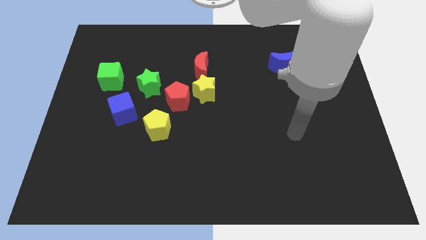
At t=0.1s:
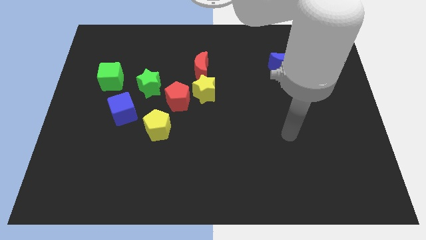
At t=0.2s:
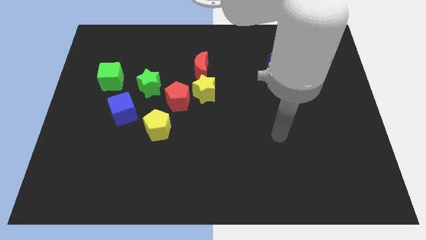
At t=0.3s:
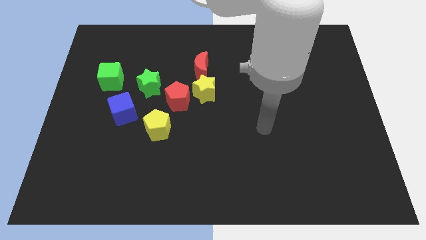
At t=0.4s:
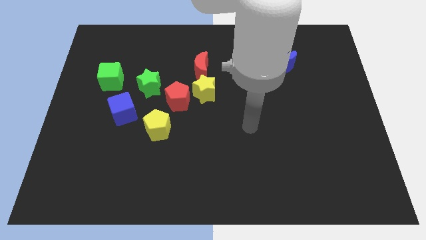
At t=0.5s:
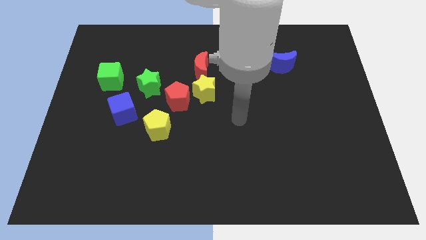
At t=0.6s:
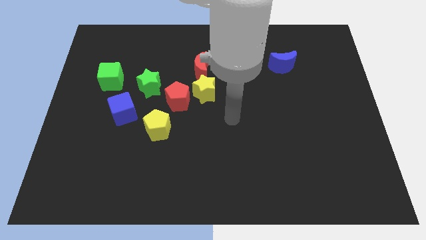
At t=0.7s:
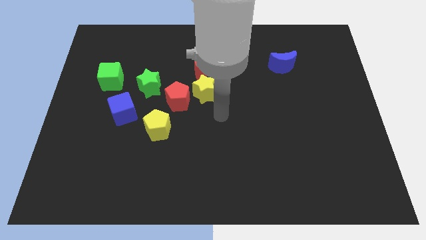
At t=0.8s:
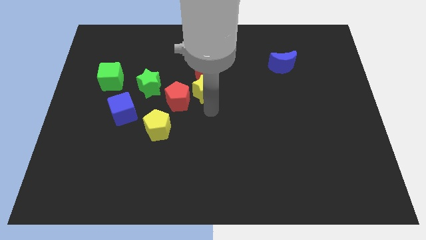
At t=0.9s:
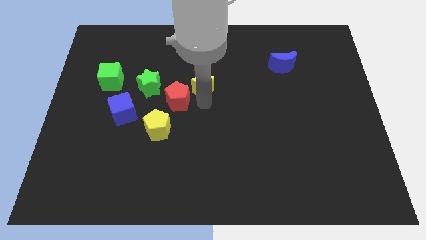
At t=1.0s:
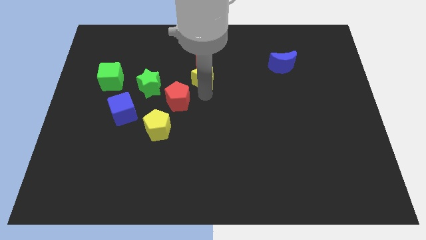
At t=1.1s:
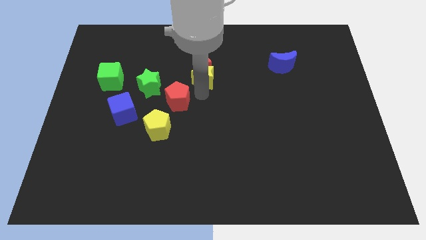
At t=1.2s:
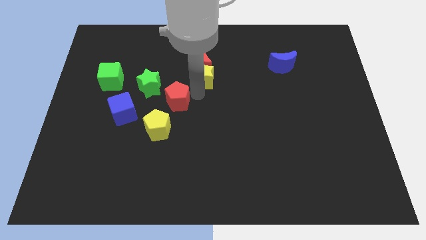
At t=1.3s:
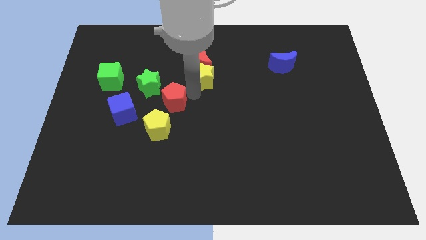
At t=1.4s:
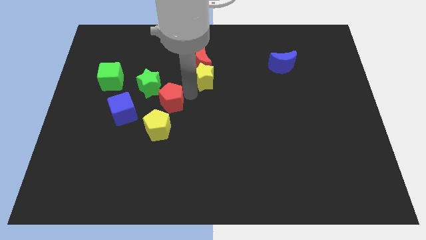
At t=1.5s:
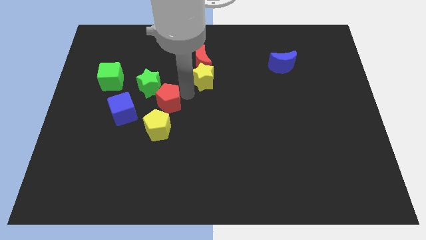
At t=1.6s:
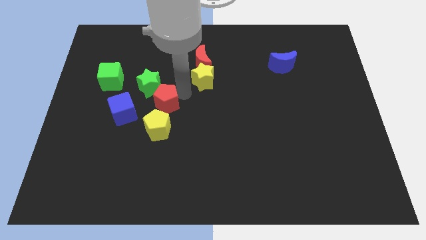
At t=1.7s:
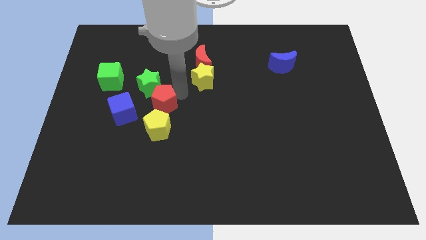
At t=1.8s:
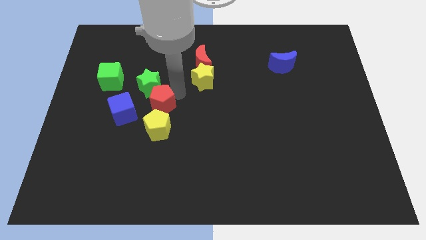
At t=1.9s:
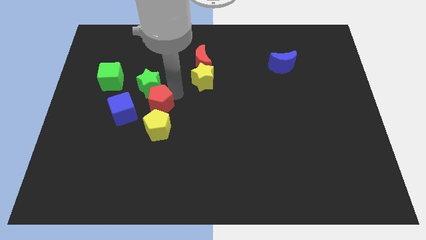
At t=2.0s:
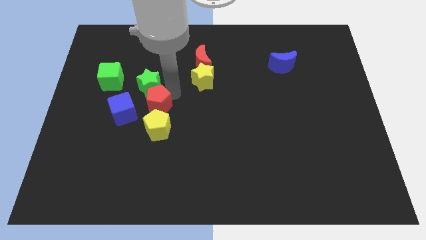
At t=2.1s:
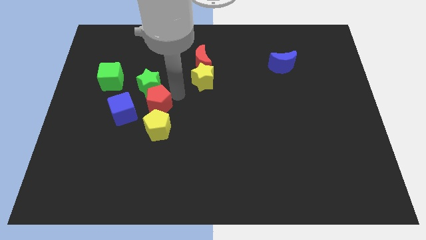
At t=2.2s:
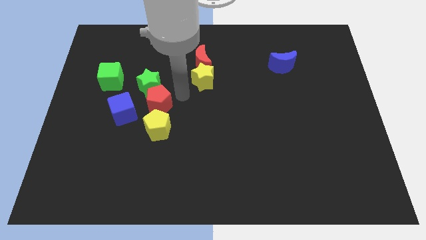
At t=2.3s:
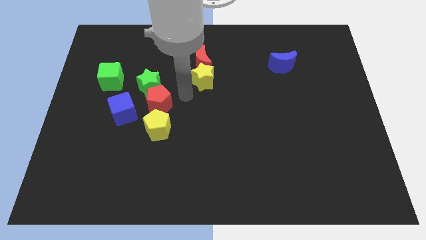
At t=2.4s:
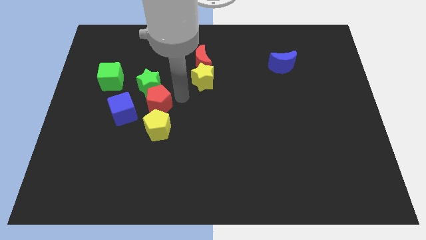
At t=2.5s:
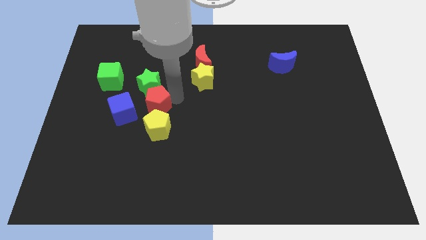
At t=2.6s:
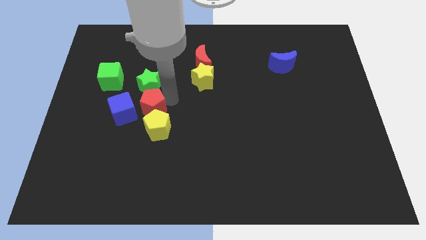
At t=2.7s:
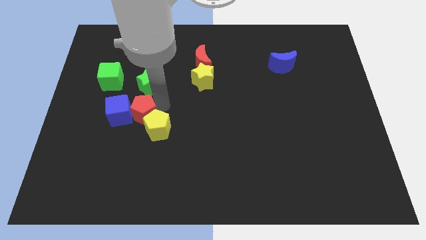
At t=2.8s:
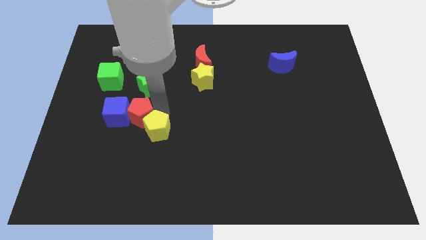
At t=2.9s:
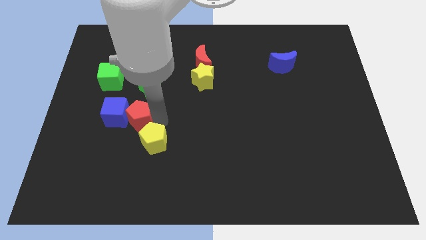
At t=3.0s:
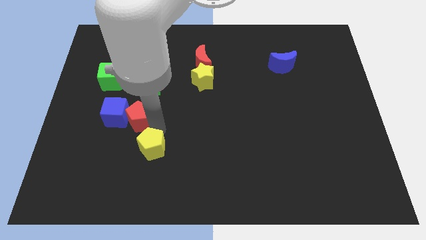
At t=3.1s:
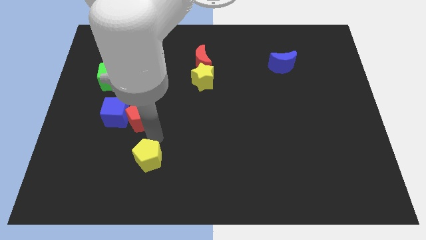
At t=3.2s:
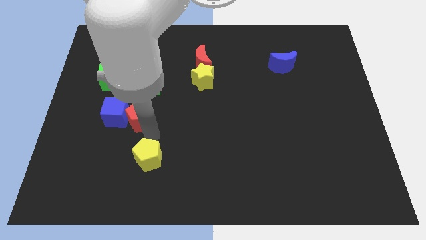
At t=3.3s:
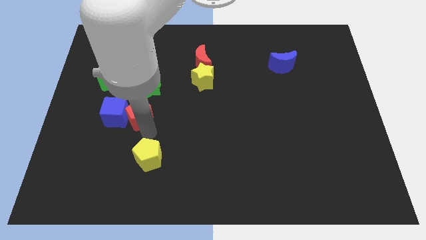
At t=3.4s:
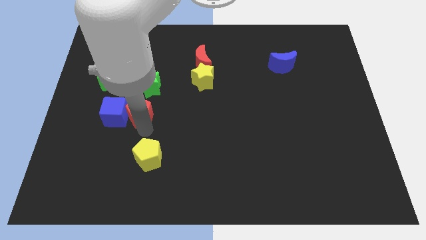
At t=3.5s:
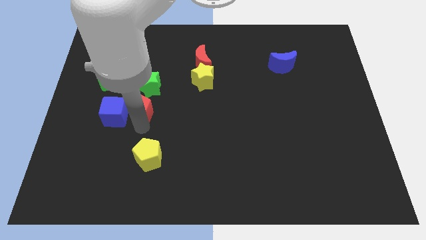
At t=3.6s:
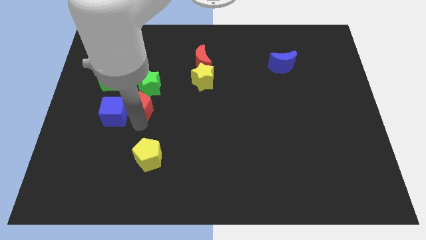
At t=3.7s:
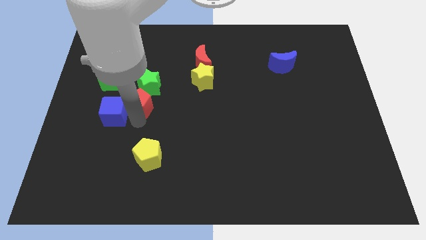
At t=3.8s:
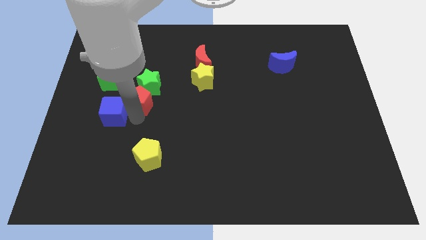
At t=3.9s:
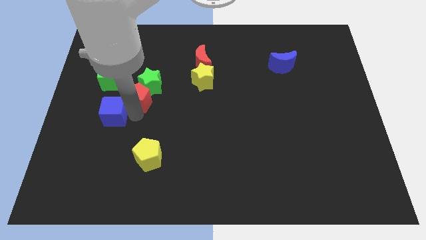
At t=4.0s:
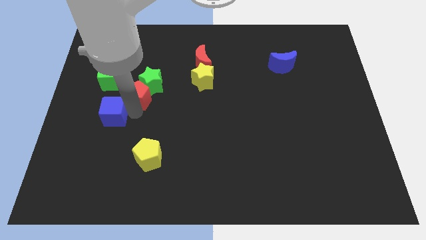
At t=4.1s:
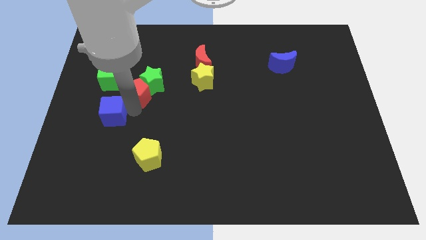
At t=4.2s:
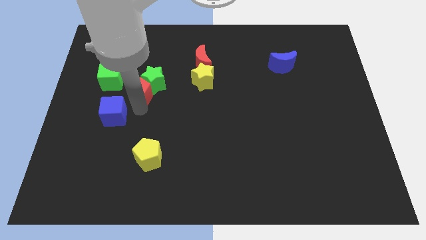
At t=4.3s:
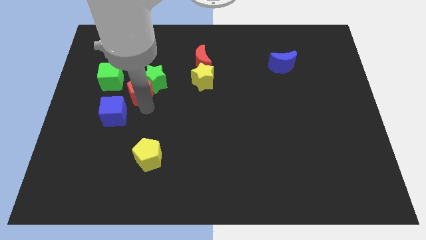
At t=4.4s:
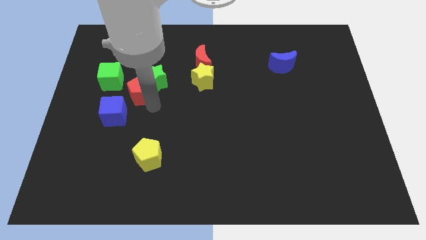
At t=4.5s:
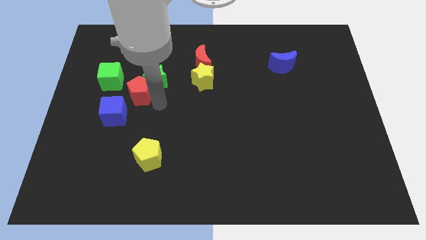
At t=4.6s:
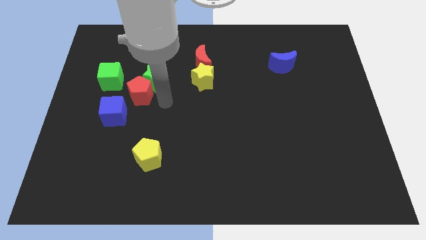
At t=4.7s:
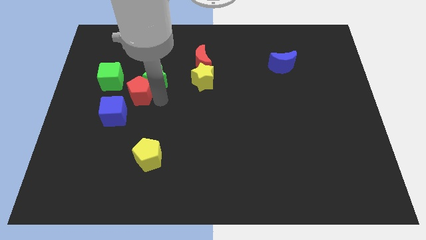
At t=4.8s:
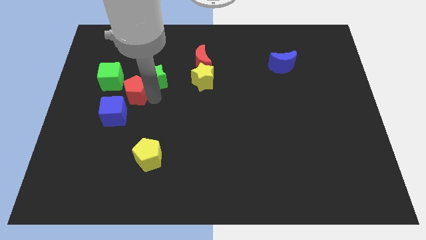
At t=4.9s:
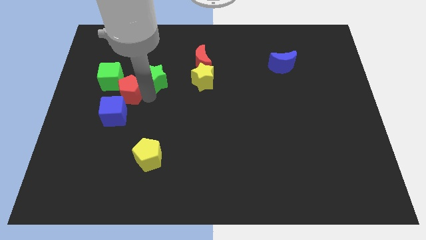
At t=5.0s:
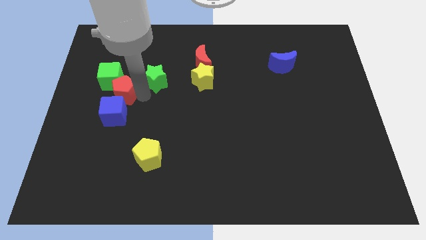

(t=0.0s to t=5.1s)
slide the red pentagon close to the green cube

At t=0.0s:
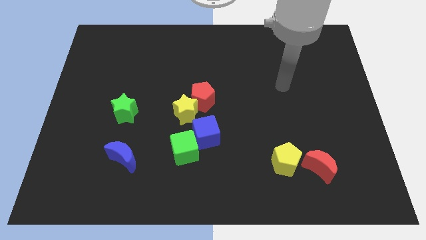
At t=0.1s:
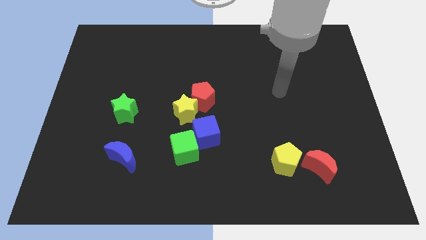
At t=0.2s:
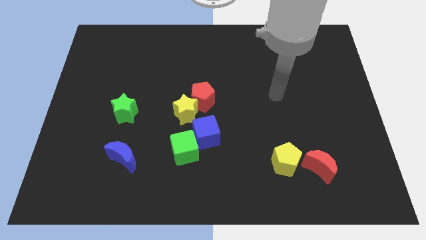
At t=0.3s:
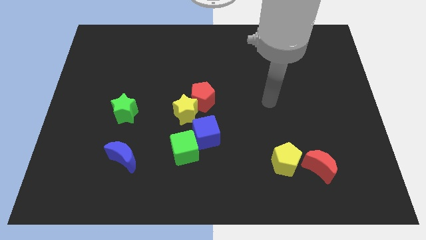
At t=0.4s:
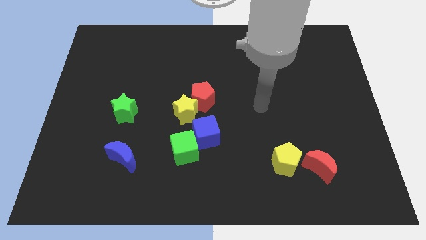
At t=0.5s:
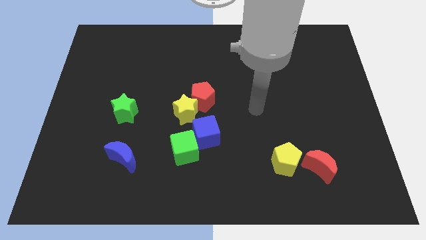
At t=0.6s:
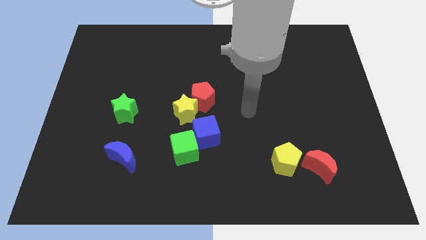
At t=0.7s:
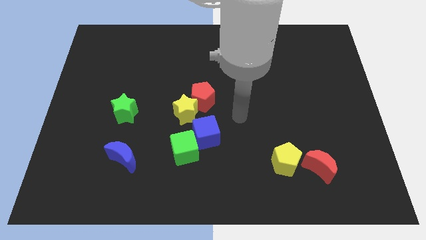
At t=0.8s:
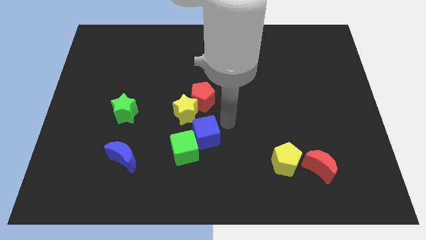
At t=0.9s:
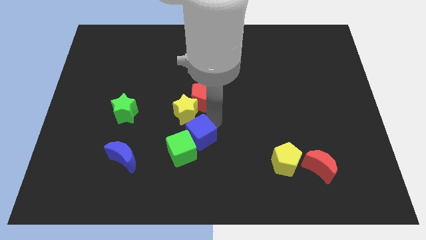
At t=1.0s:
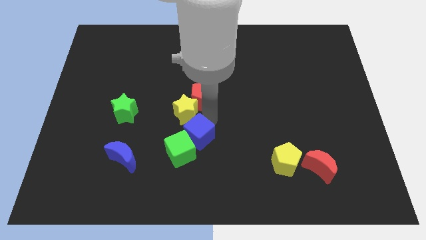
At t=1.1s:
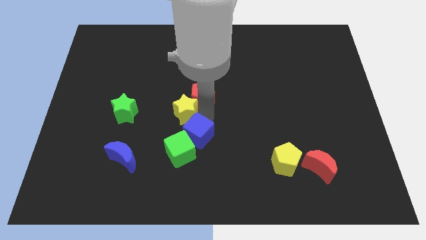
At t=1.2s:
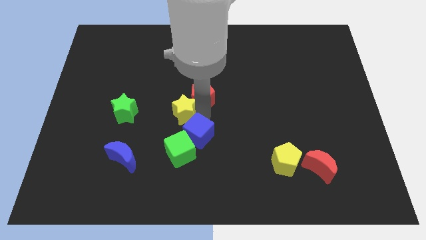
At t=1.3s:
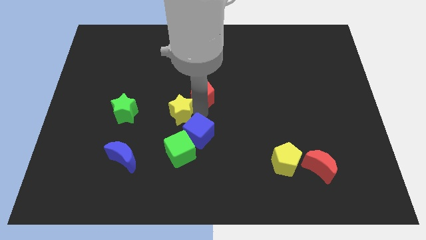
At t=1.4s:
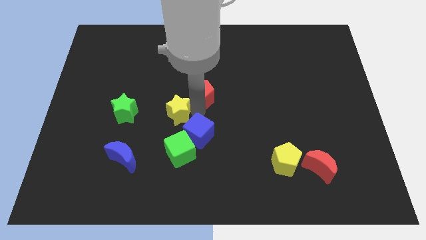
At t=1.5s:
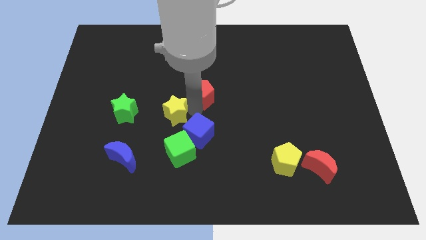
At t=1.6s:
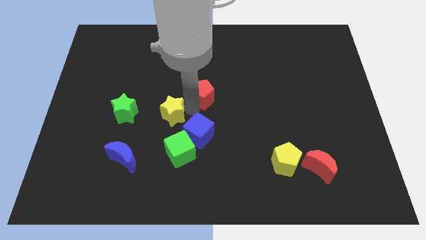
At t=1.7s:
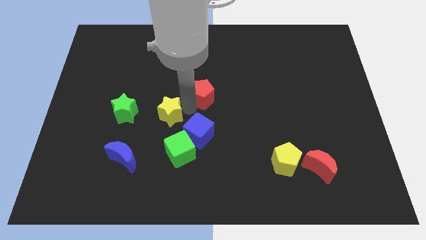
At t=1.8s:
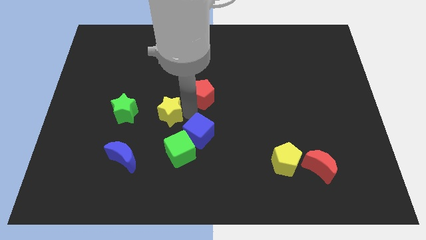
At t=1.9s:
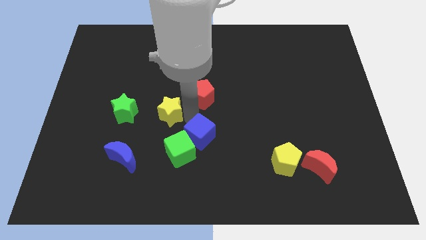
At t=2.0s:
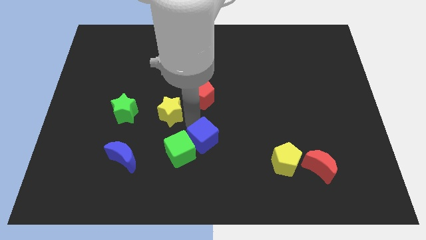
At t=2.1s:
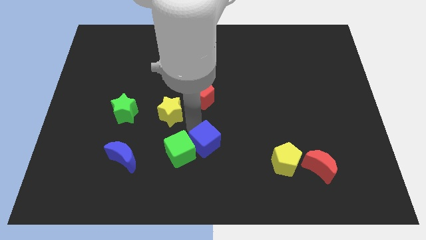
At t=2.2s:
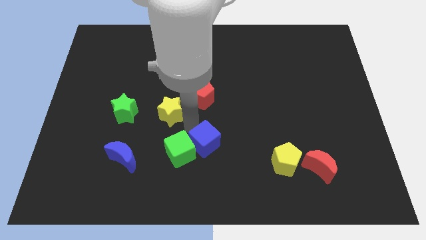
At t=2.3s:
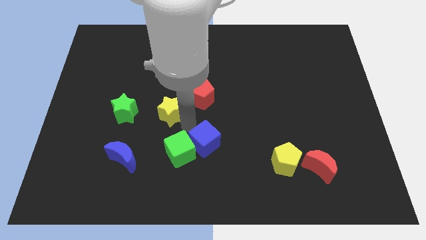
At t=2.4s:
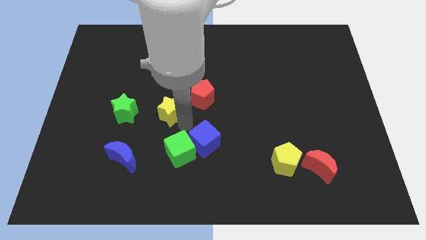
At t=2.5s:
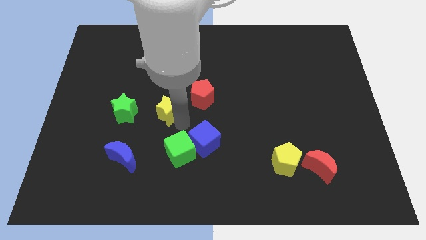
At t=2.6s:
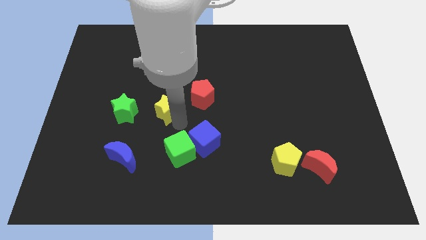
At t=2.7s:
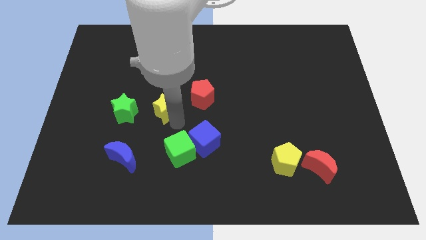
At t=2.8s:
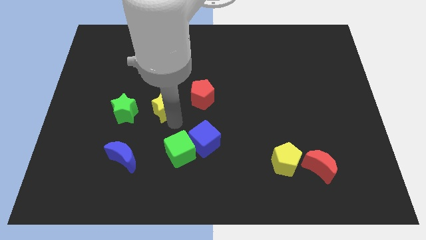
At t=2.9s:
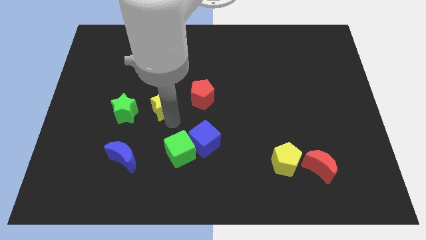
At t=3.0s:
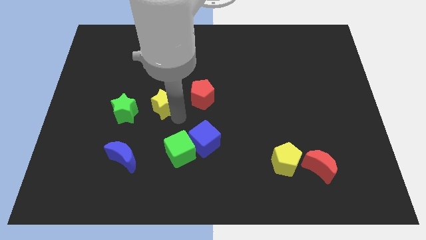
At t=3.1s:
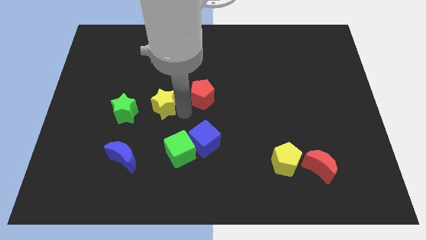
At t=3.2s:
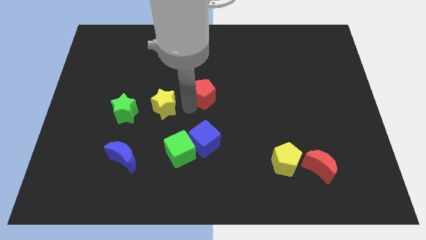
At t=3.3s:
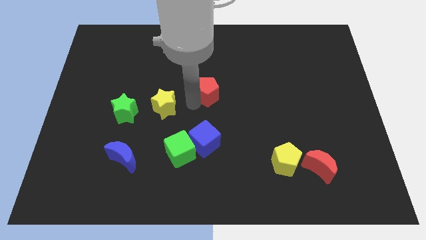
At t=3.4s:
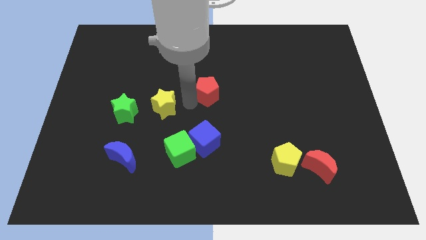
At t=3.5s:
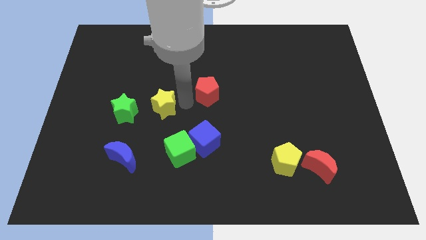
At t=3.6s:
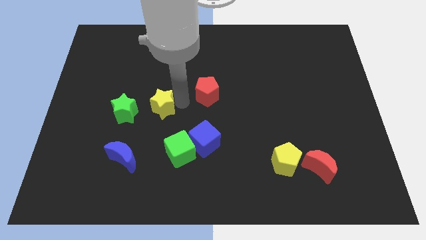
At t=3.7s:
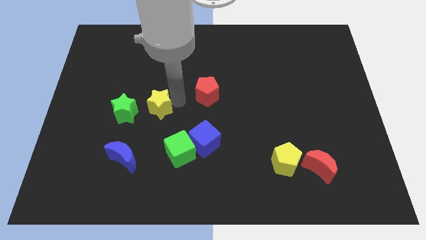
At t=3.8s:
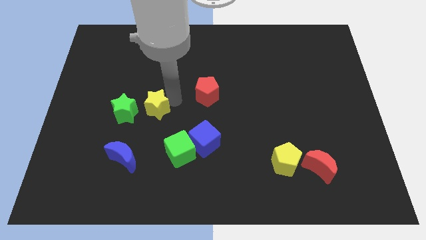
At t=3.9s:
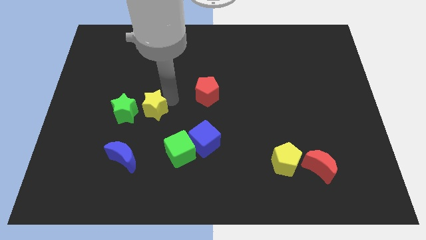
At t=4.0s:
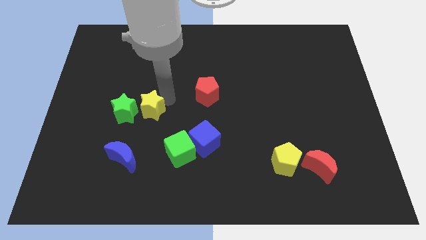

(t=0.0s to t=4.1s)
push the yellow star close to the green star
